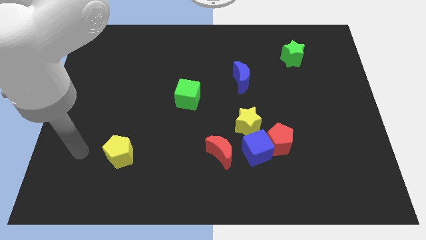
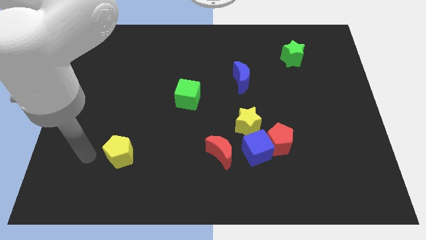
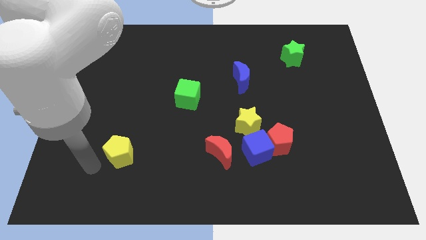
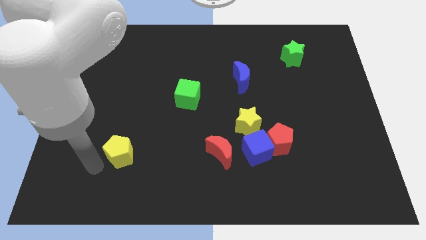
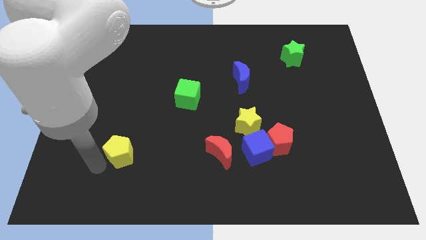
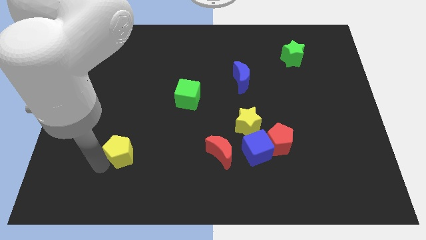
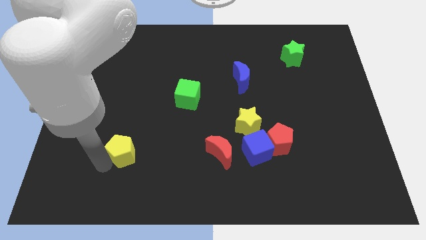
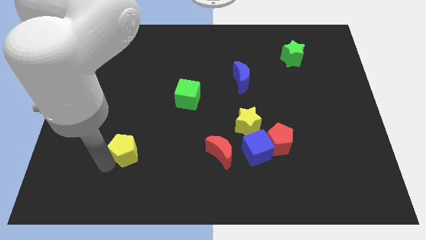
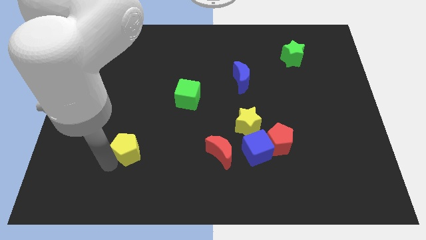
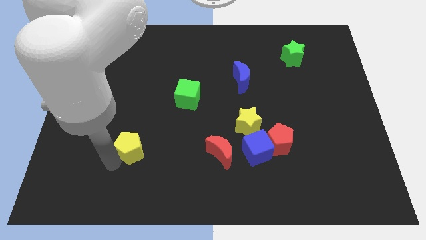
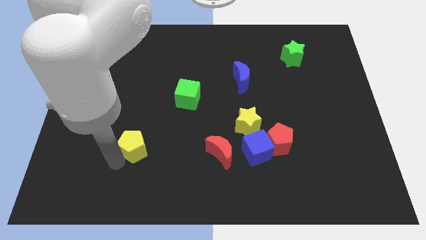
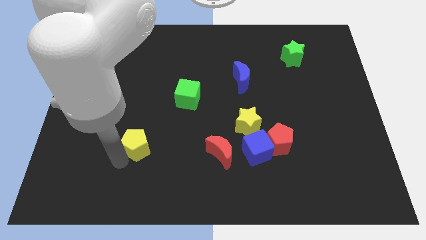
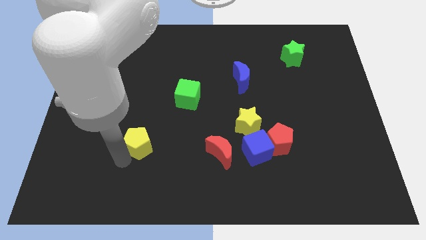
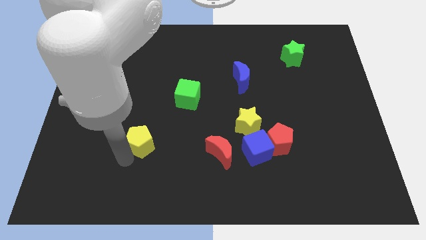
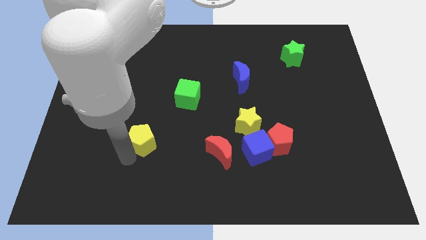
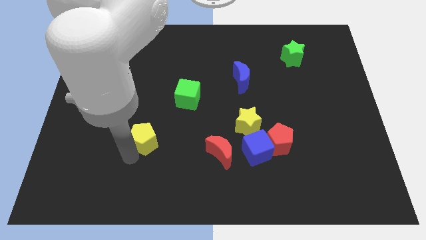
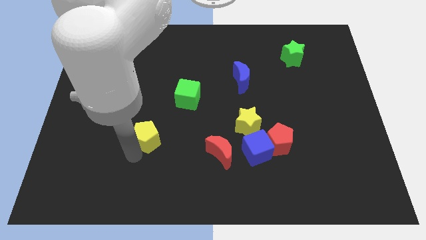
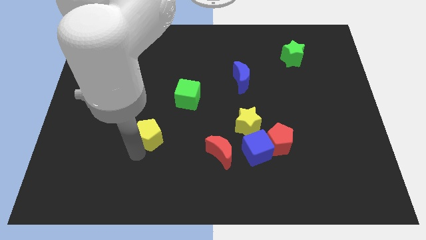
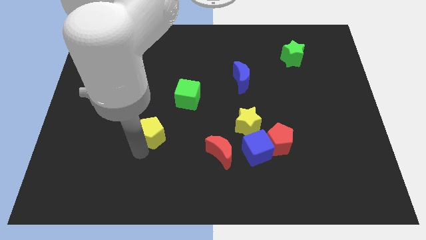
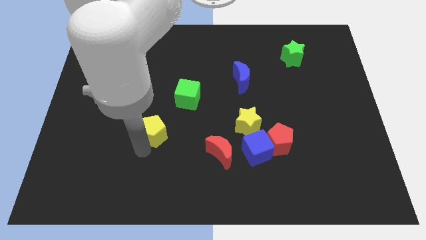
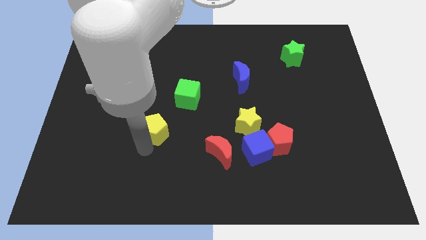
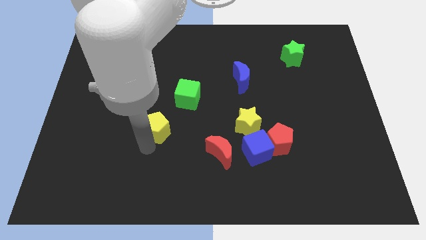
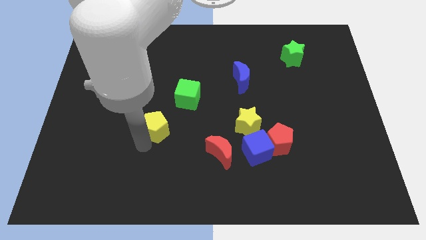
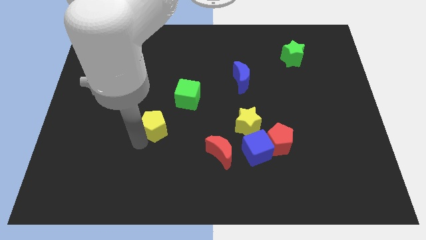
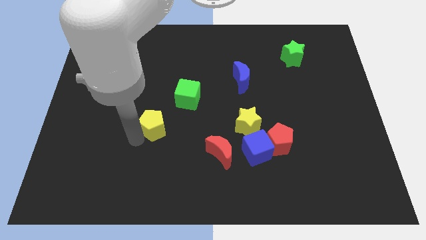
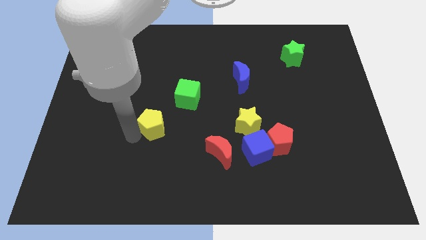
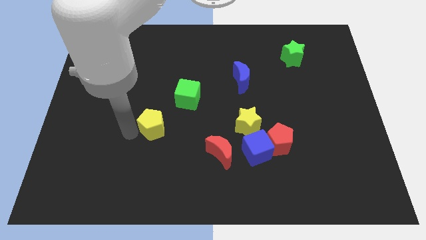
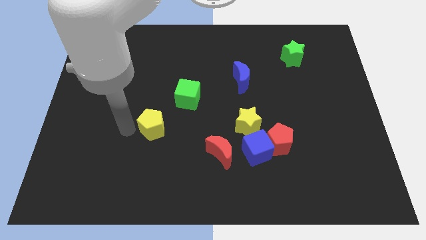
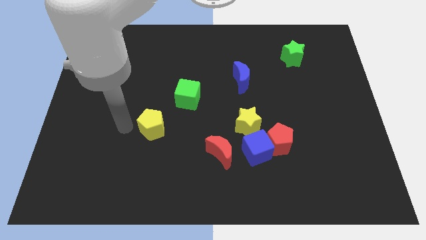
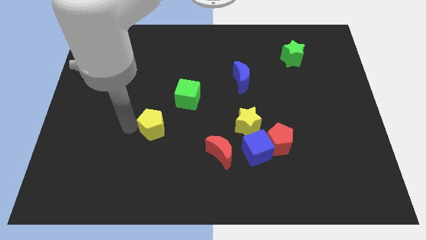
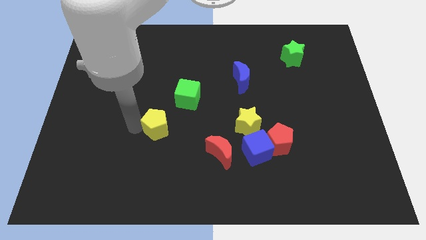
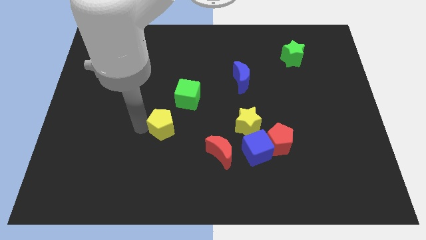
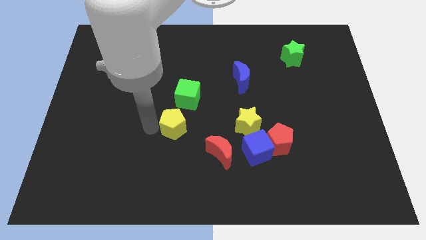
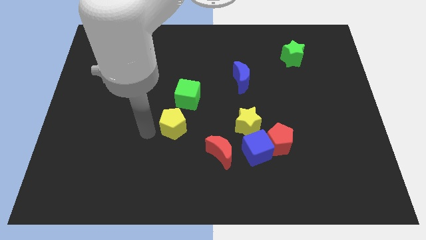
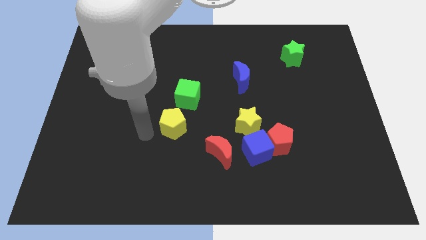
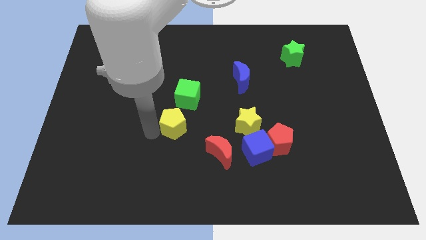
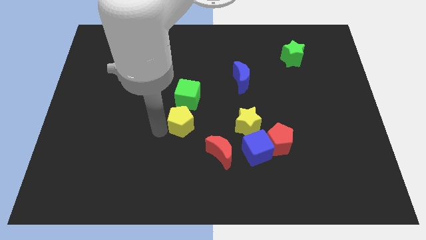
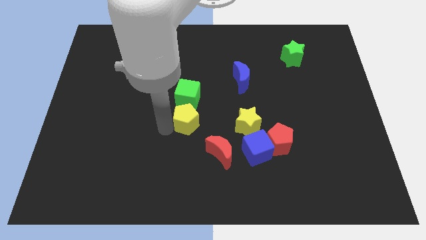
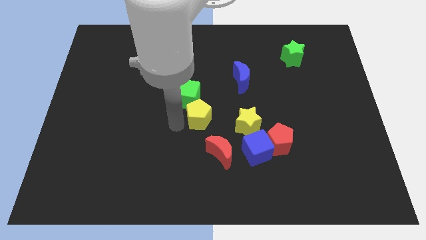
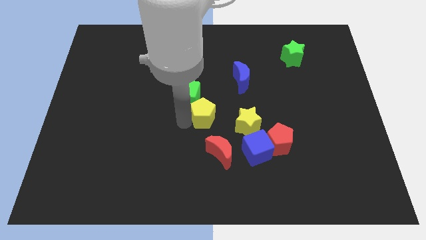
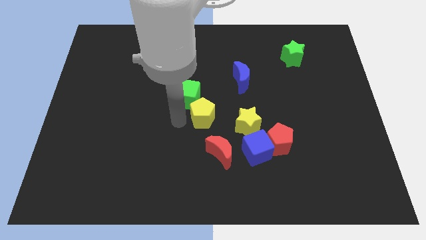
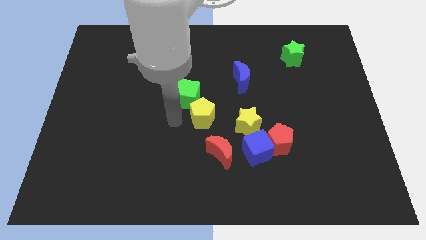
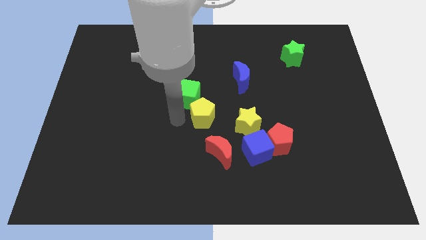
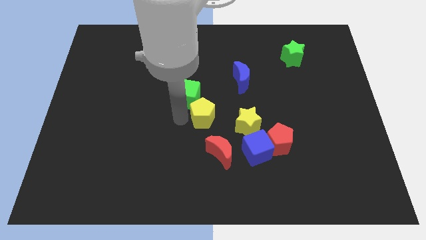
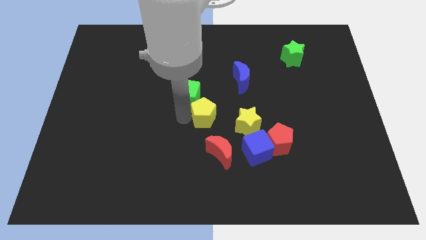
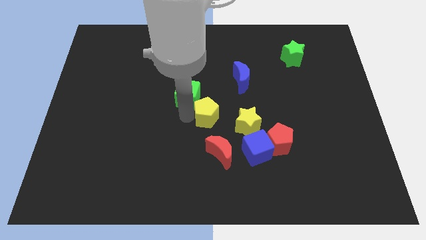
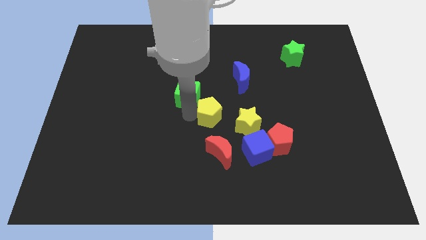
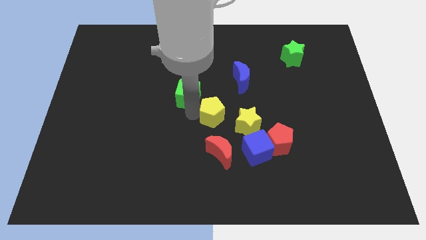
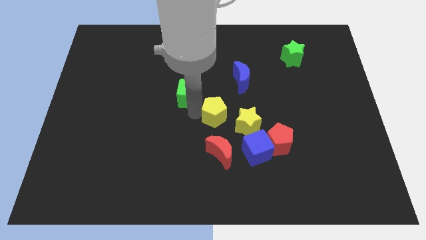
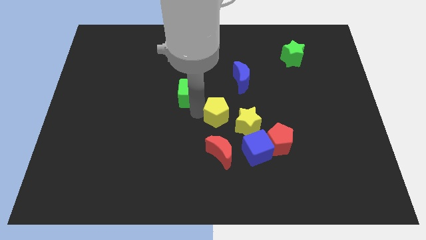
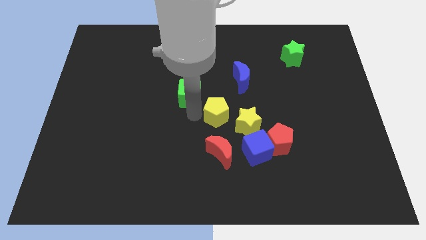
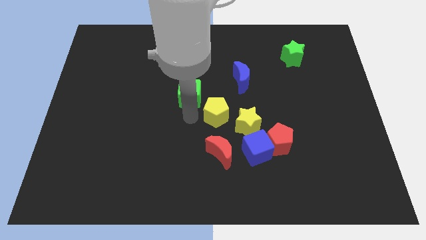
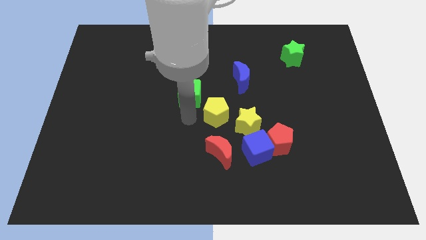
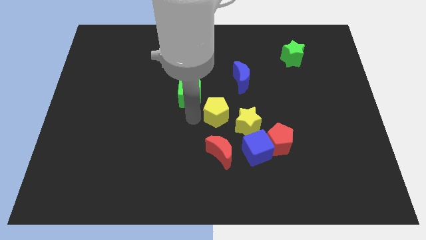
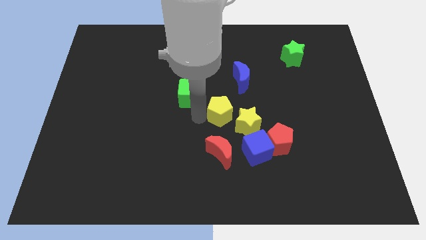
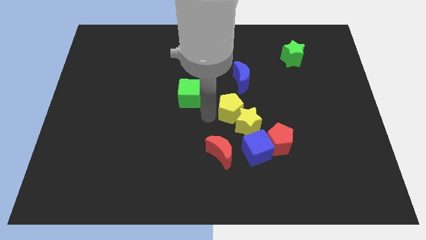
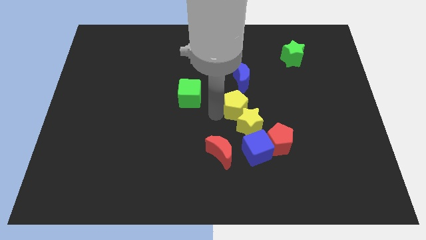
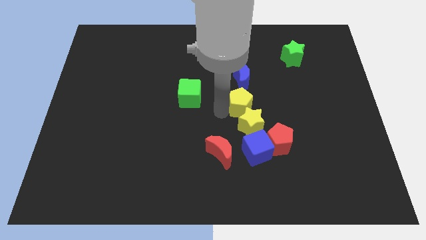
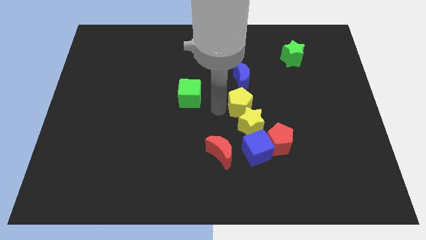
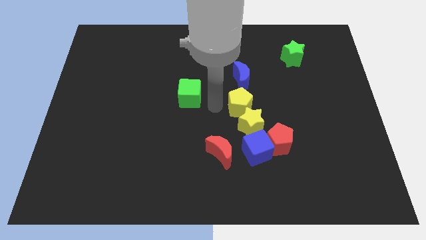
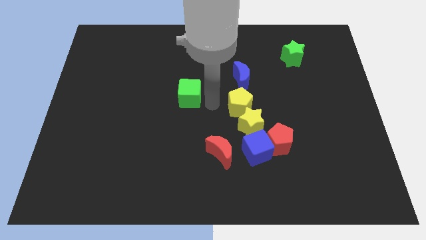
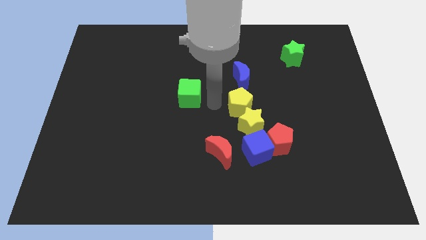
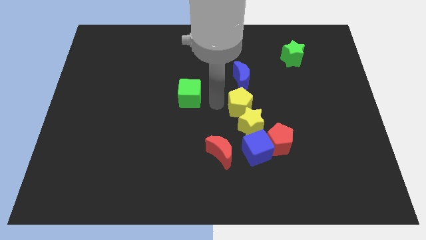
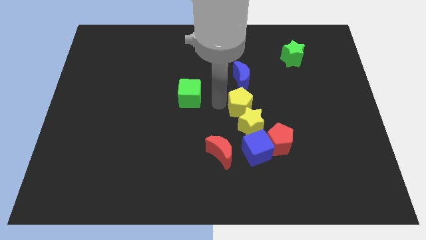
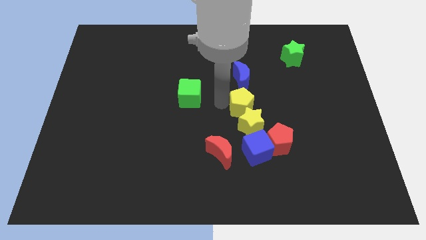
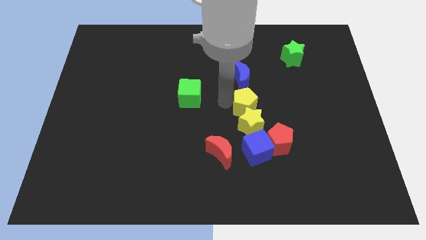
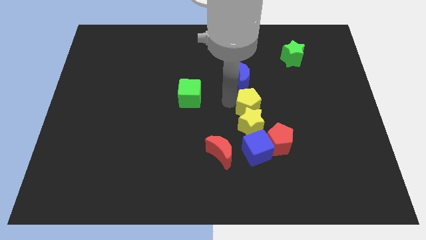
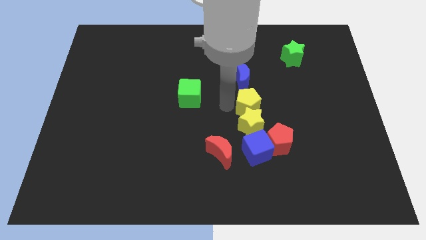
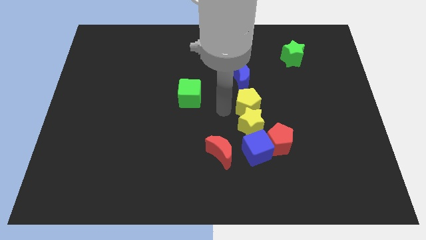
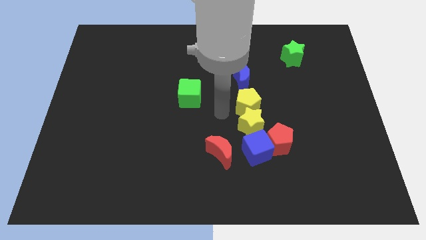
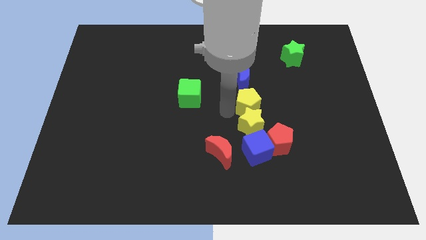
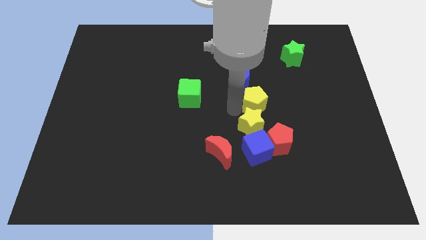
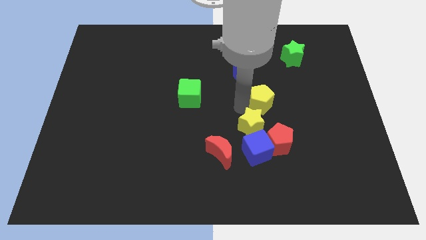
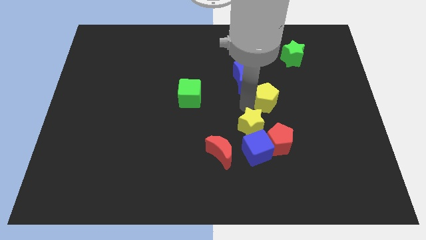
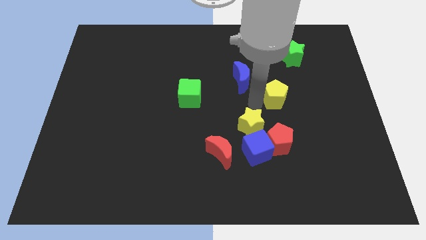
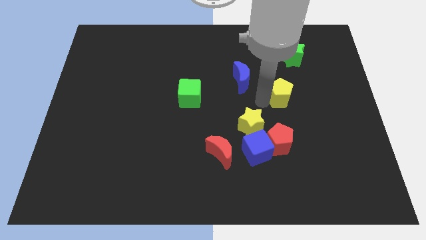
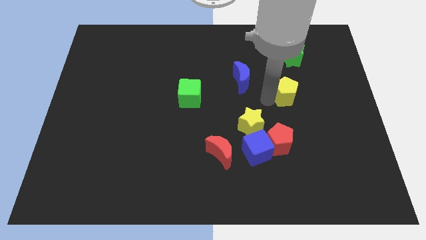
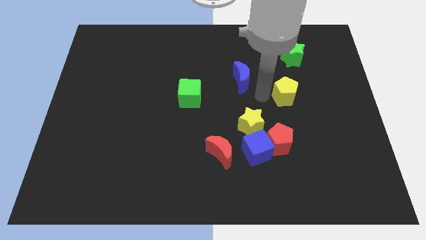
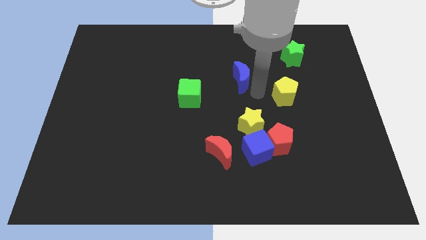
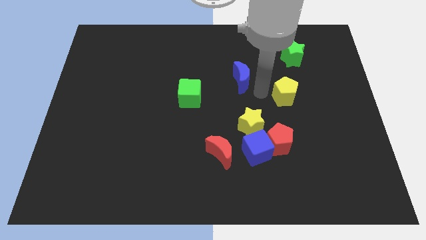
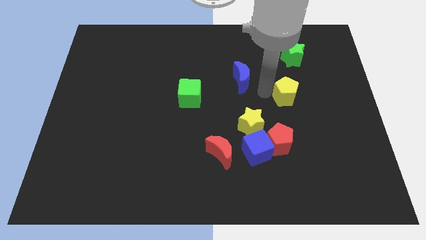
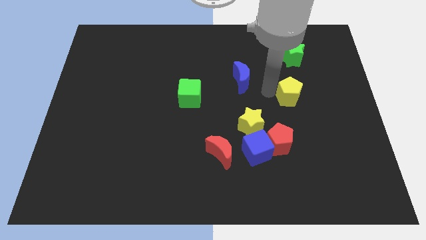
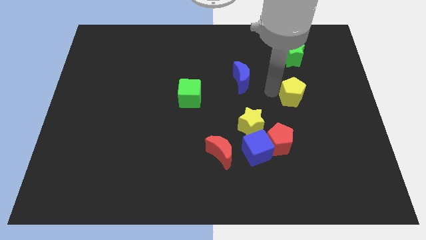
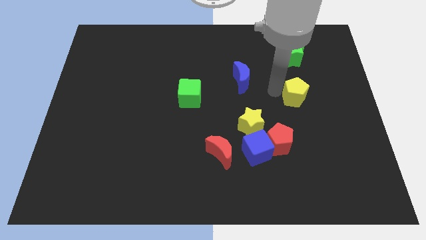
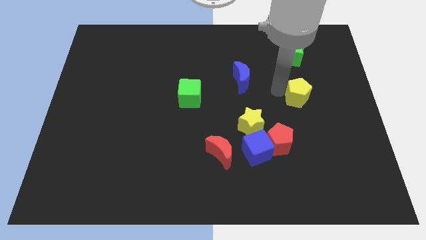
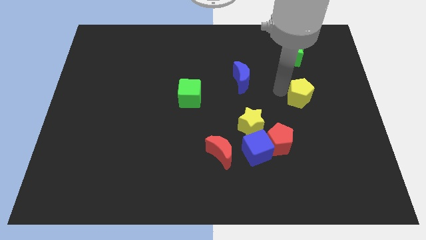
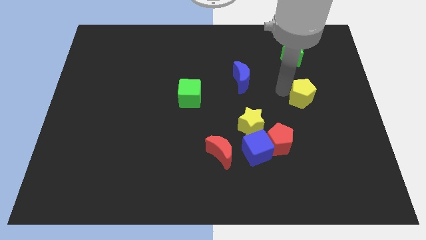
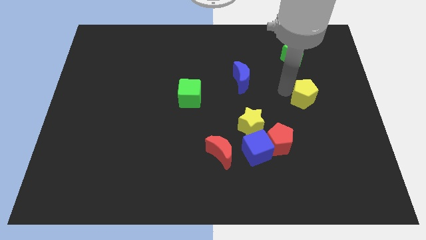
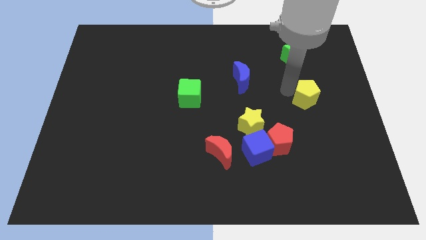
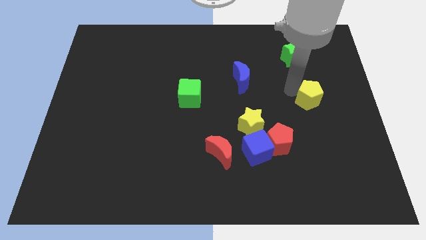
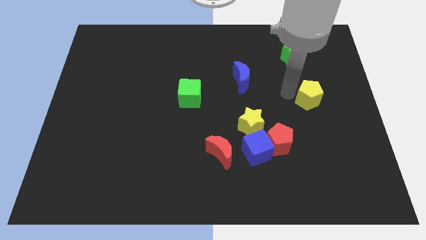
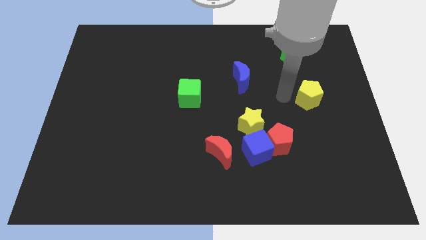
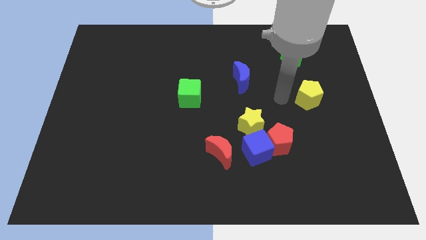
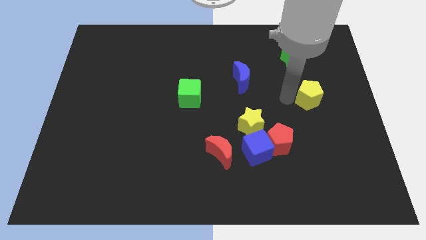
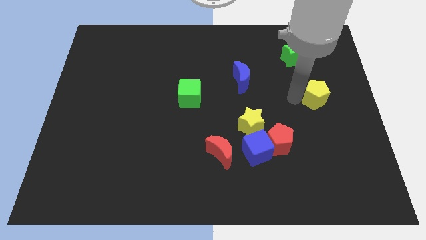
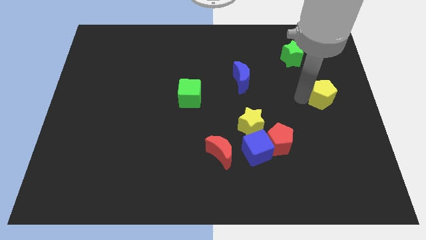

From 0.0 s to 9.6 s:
move the yellow pentagon to the center right
